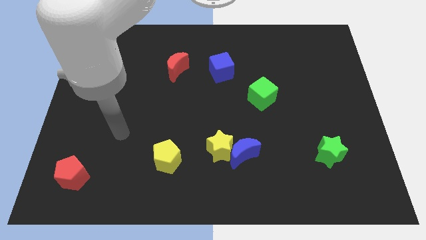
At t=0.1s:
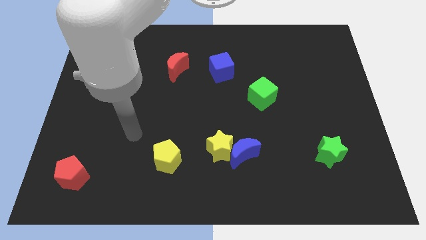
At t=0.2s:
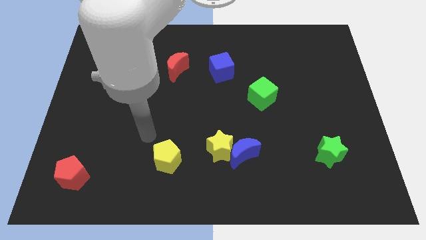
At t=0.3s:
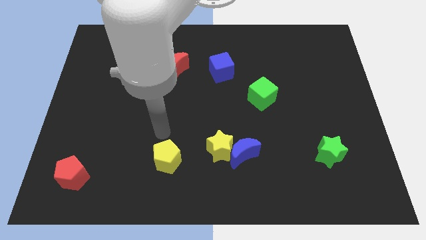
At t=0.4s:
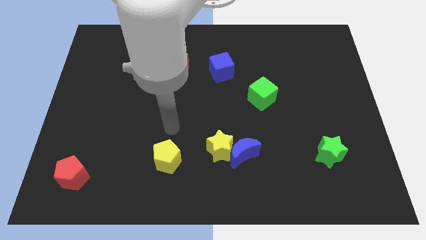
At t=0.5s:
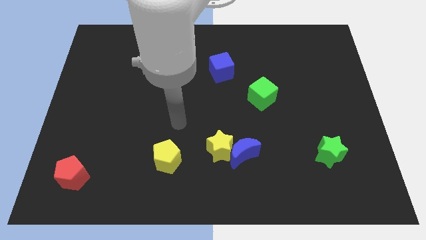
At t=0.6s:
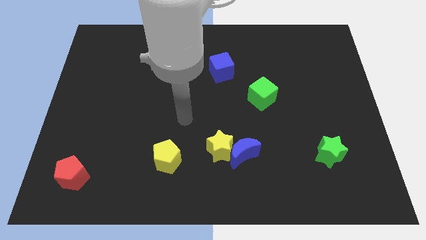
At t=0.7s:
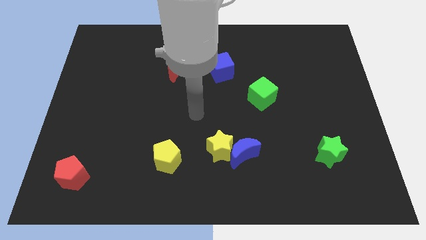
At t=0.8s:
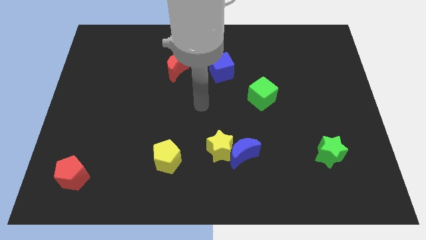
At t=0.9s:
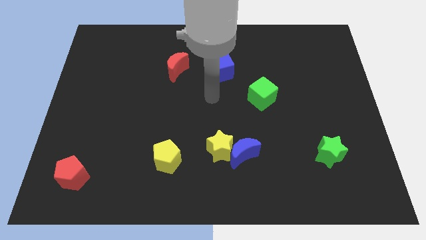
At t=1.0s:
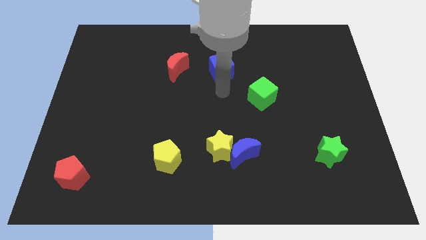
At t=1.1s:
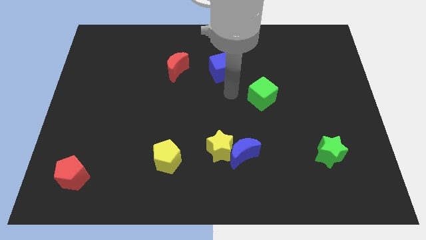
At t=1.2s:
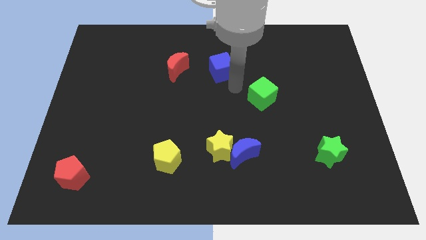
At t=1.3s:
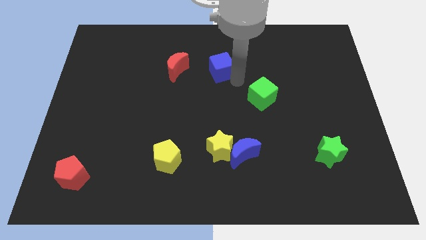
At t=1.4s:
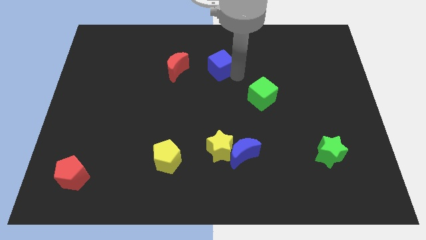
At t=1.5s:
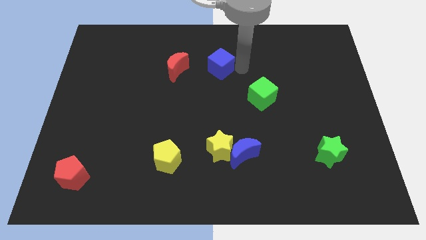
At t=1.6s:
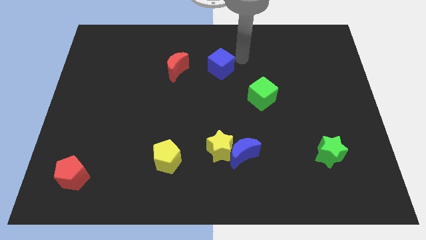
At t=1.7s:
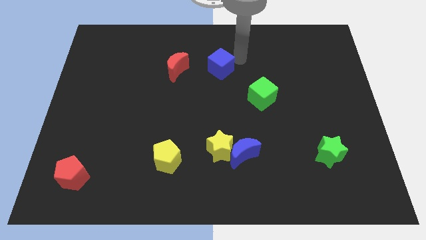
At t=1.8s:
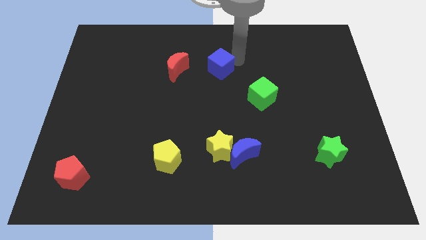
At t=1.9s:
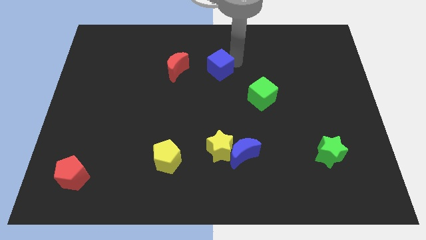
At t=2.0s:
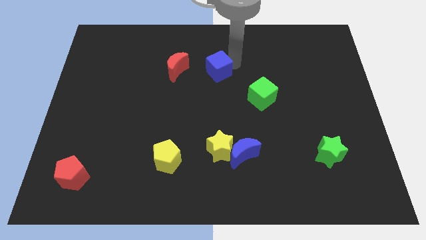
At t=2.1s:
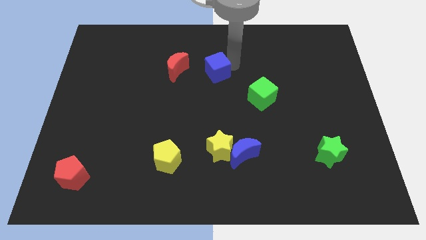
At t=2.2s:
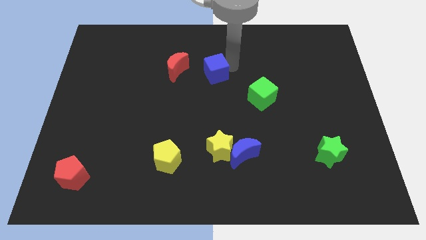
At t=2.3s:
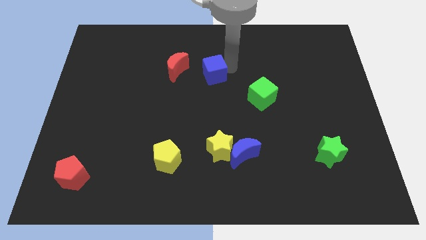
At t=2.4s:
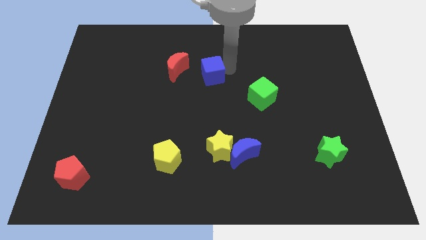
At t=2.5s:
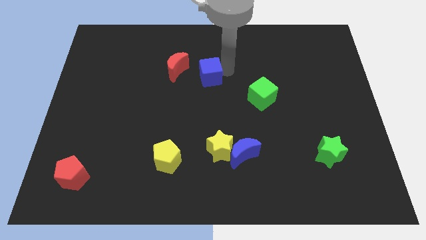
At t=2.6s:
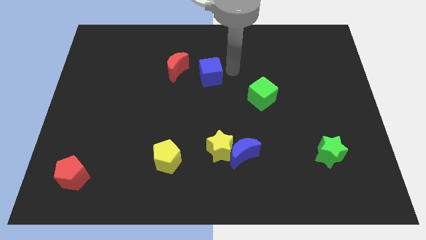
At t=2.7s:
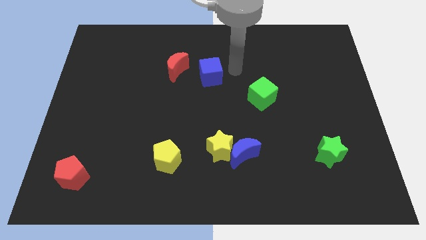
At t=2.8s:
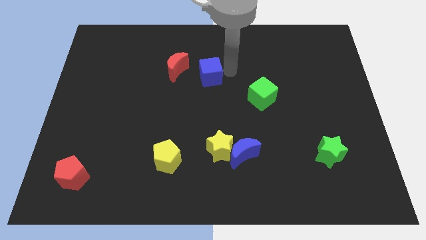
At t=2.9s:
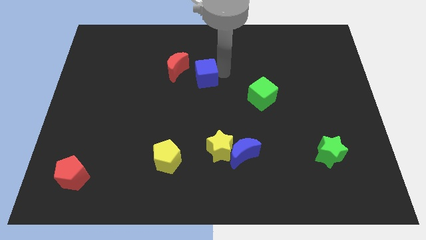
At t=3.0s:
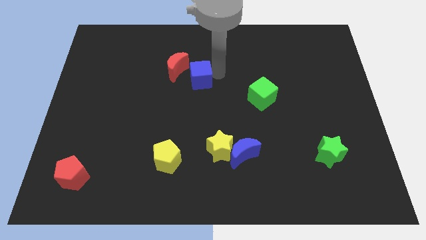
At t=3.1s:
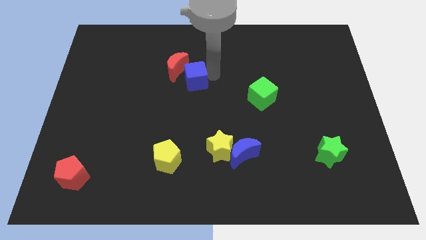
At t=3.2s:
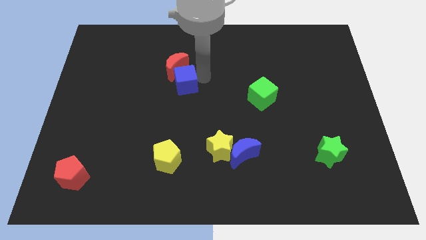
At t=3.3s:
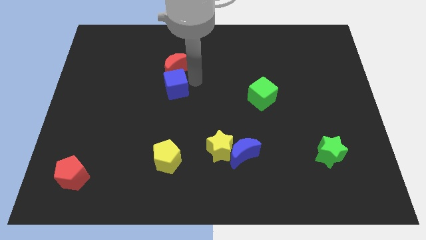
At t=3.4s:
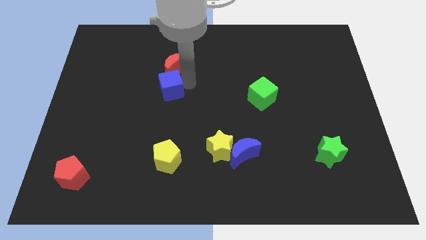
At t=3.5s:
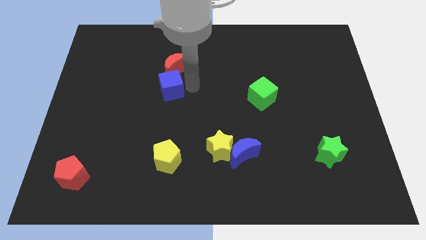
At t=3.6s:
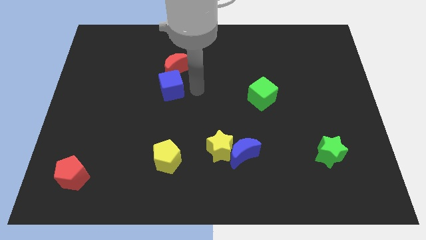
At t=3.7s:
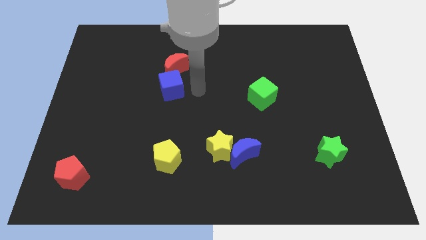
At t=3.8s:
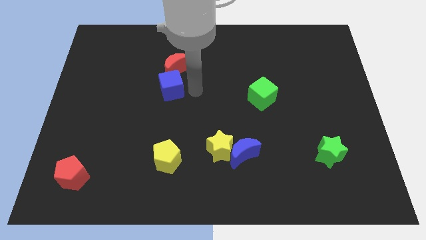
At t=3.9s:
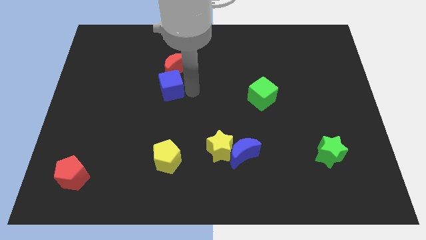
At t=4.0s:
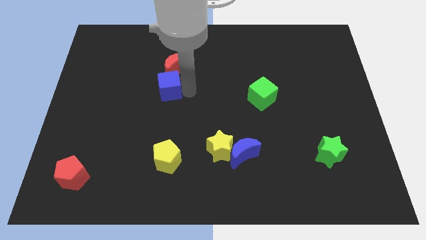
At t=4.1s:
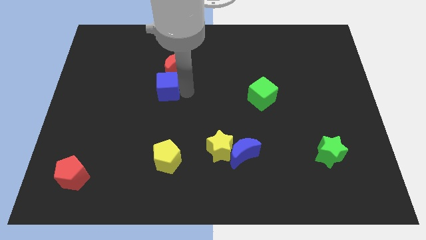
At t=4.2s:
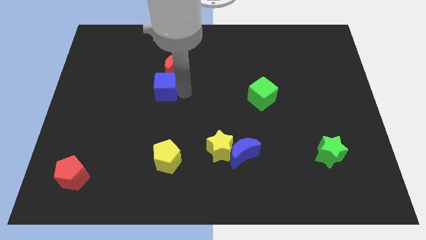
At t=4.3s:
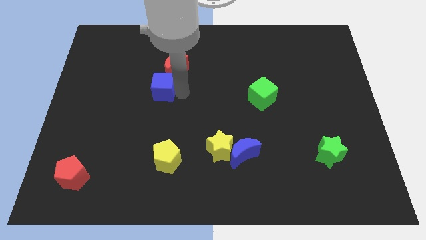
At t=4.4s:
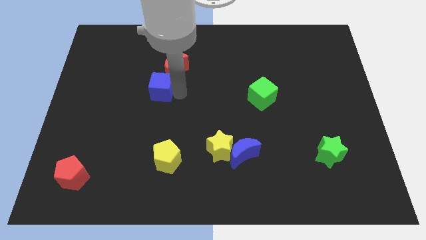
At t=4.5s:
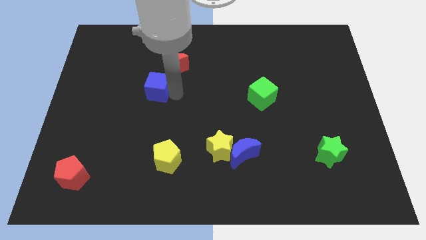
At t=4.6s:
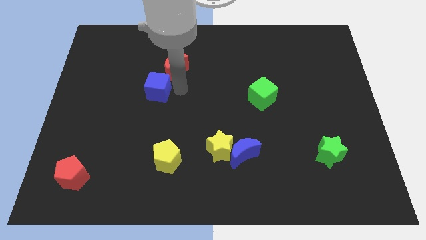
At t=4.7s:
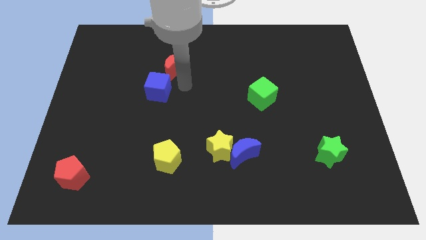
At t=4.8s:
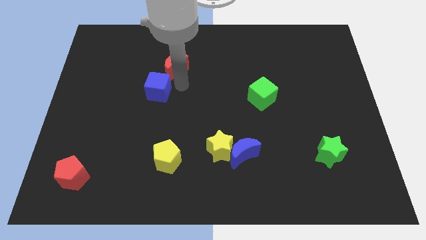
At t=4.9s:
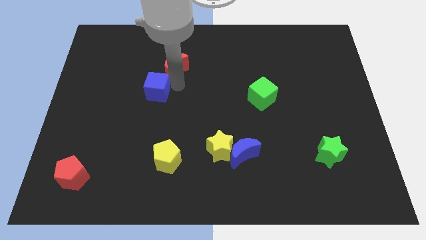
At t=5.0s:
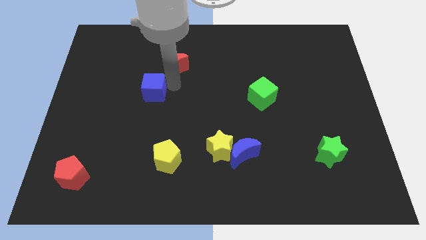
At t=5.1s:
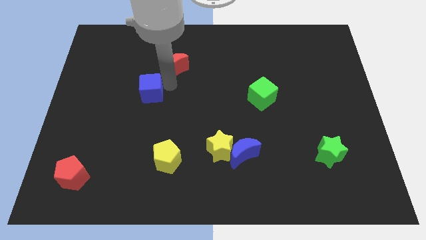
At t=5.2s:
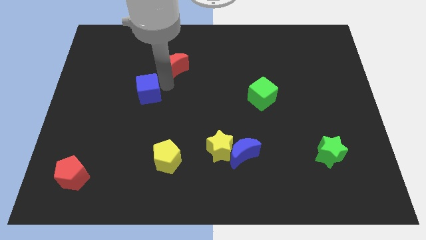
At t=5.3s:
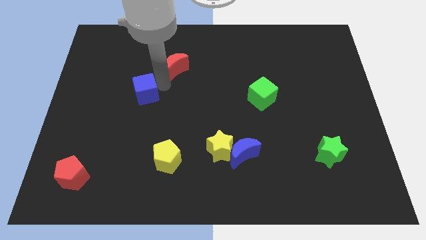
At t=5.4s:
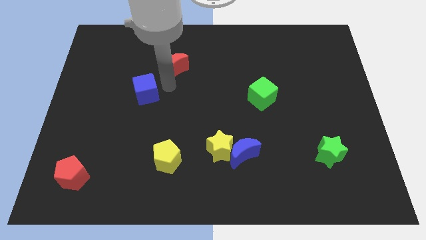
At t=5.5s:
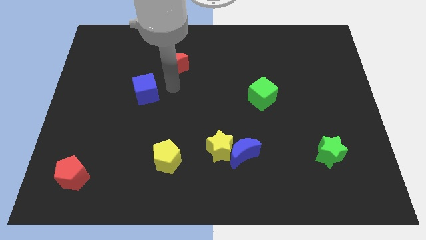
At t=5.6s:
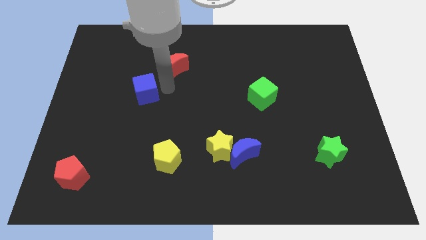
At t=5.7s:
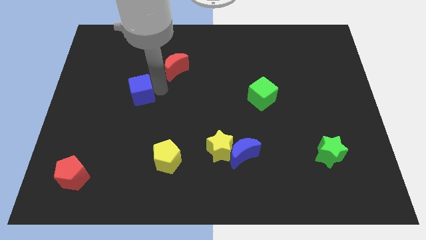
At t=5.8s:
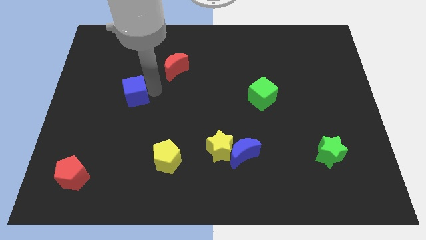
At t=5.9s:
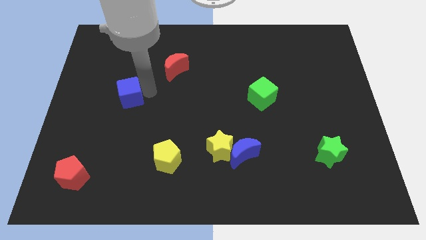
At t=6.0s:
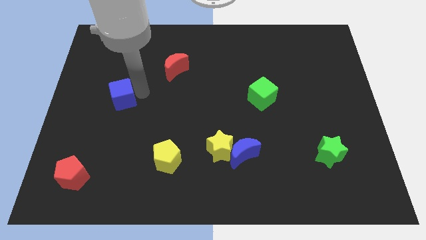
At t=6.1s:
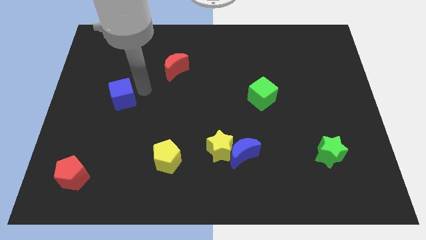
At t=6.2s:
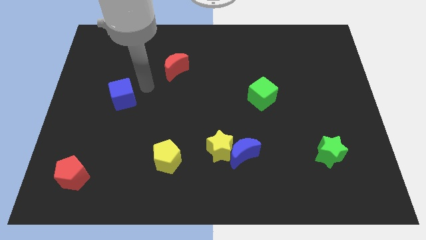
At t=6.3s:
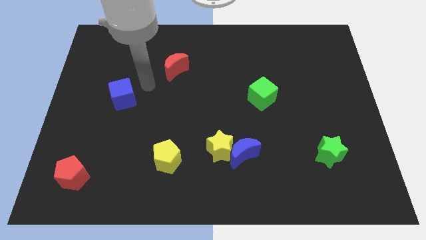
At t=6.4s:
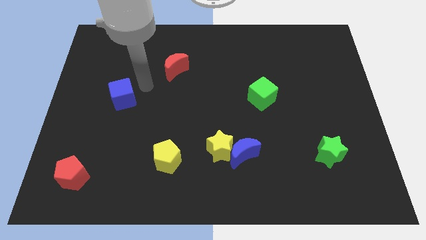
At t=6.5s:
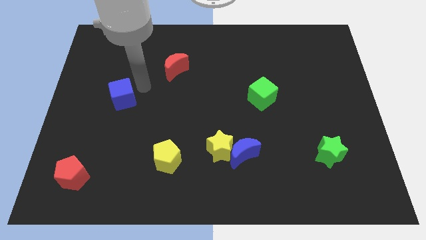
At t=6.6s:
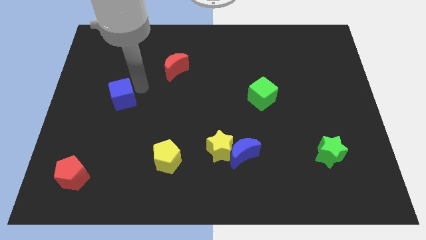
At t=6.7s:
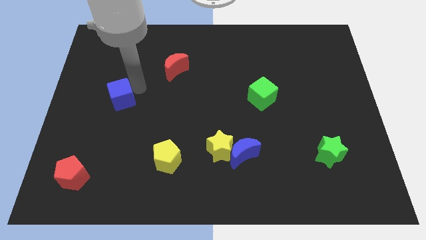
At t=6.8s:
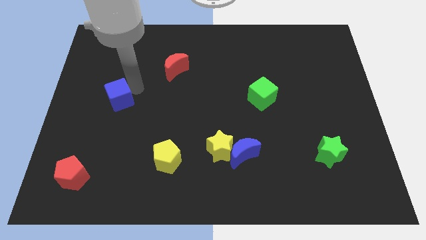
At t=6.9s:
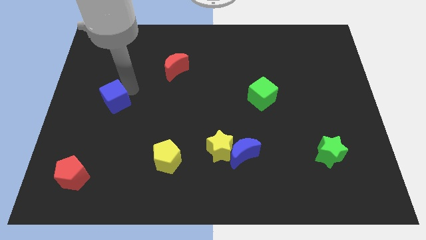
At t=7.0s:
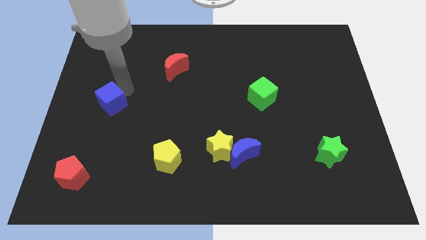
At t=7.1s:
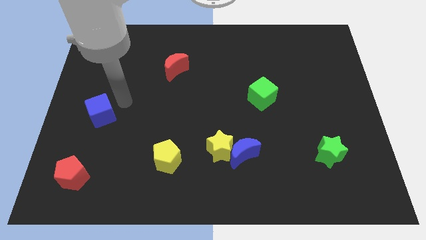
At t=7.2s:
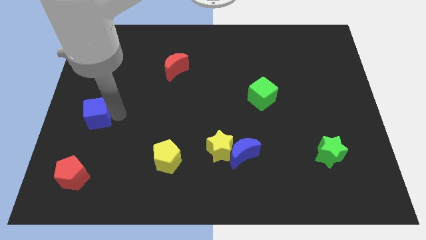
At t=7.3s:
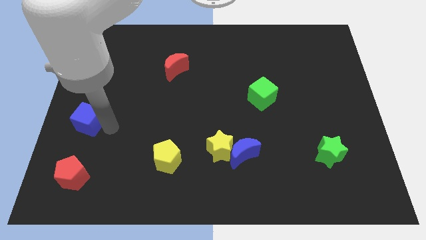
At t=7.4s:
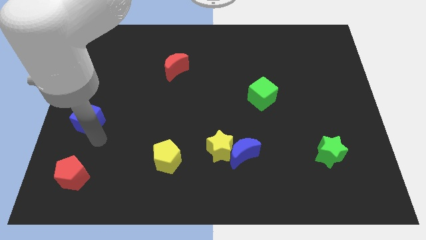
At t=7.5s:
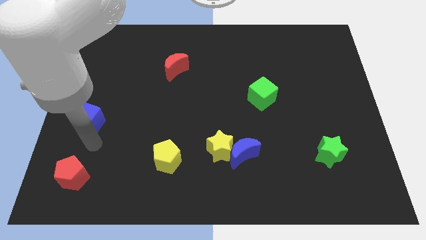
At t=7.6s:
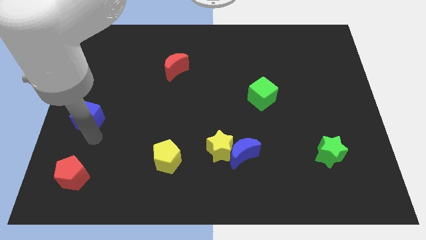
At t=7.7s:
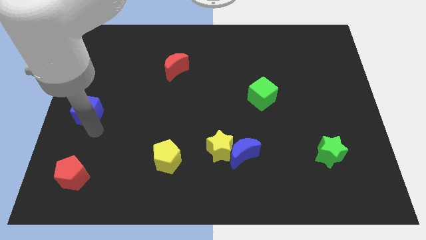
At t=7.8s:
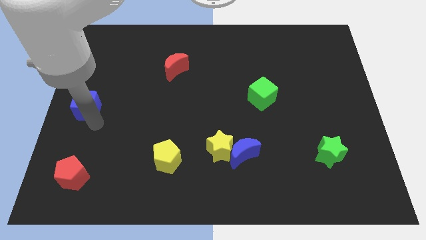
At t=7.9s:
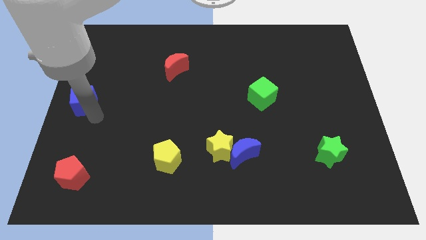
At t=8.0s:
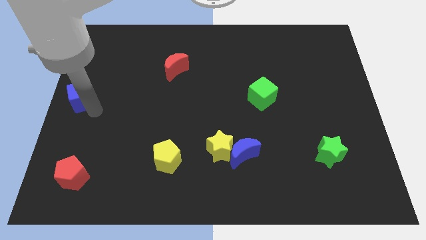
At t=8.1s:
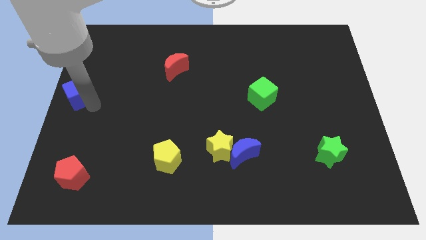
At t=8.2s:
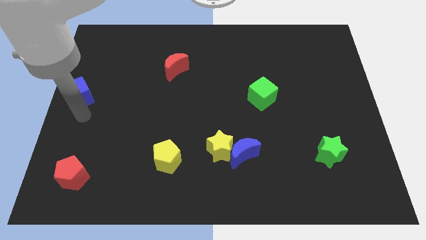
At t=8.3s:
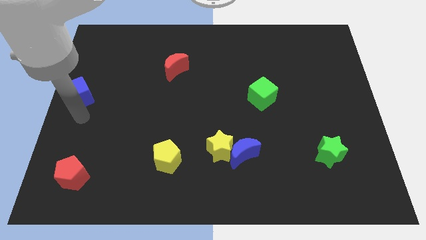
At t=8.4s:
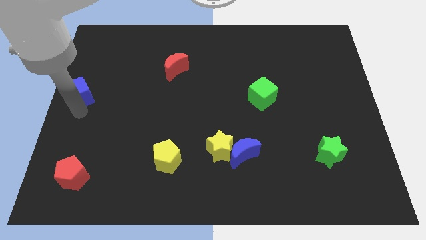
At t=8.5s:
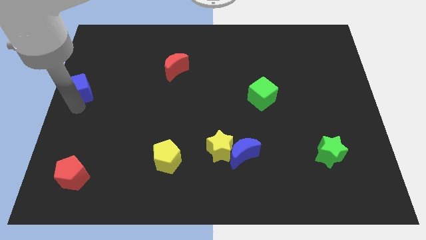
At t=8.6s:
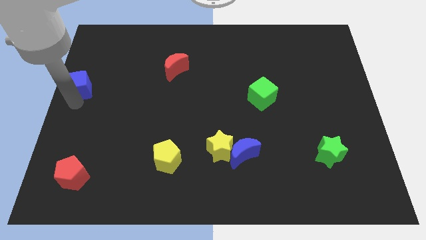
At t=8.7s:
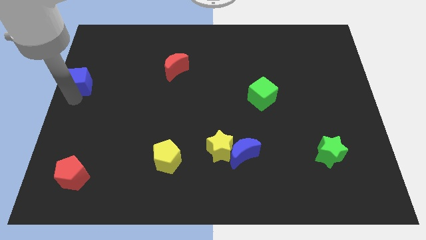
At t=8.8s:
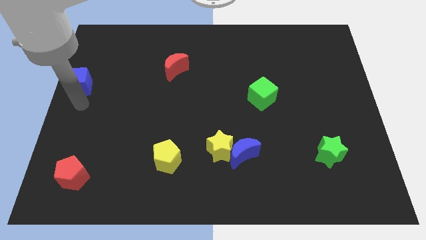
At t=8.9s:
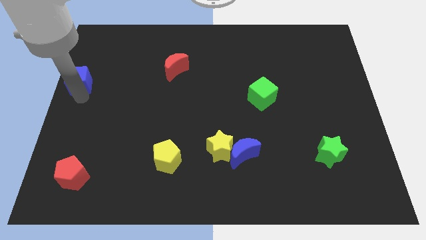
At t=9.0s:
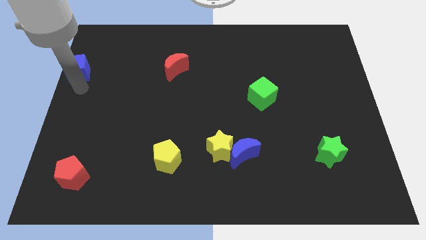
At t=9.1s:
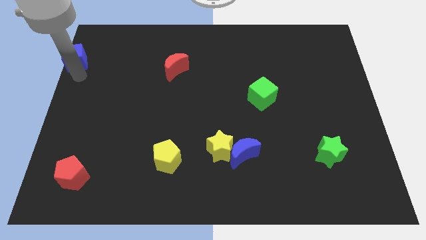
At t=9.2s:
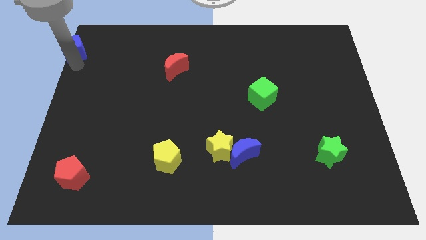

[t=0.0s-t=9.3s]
move the blue cube to the upper left corner
